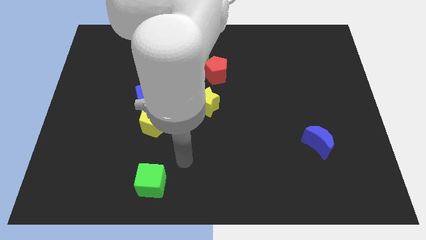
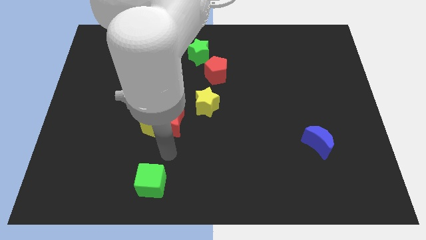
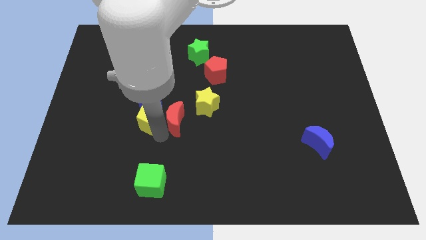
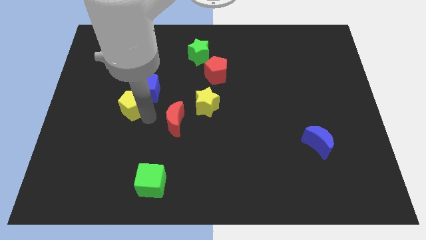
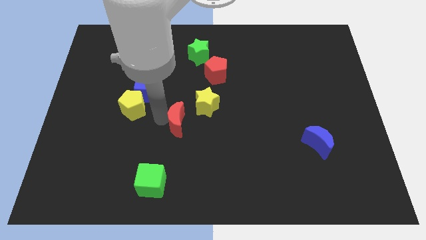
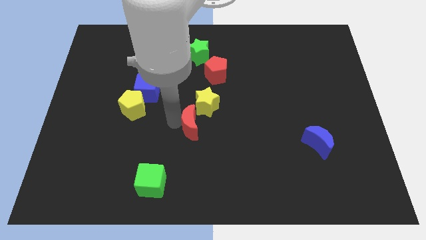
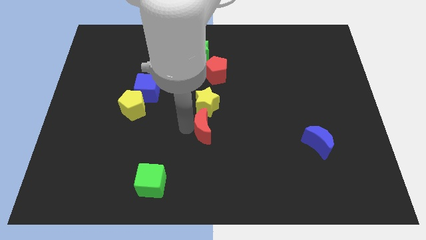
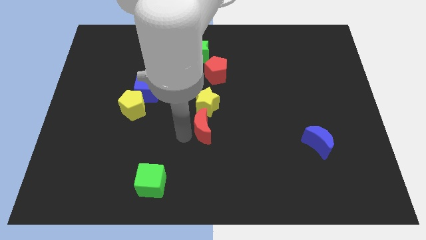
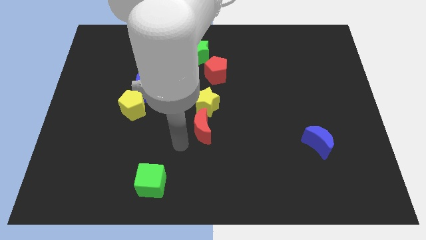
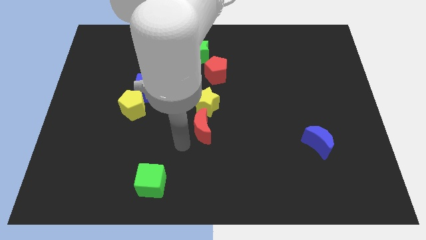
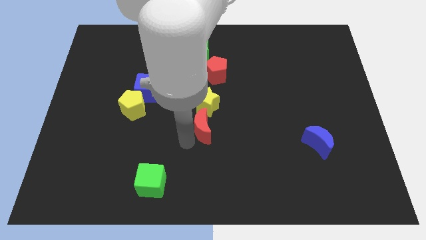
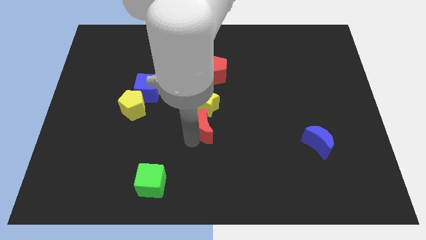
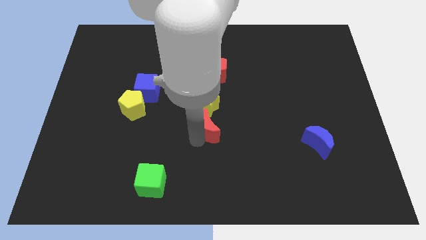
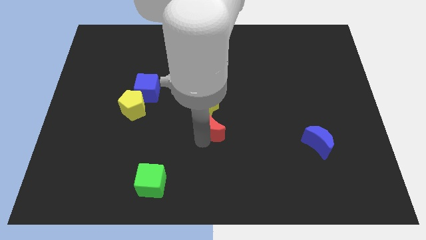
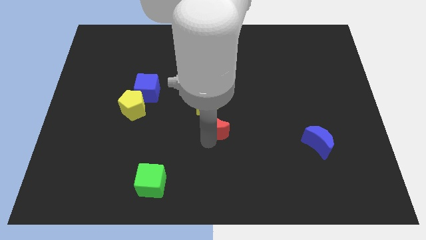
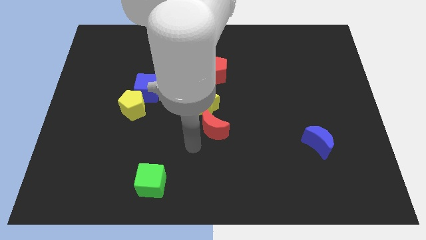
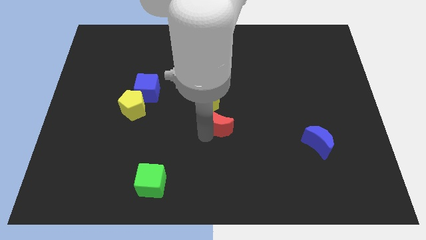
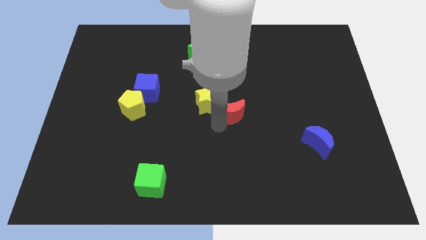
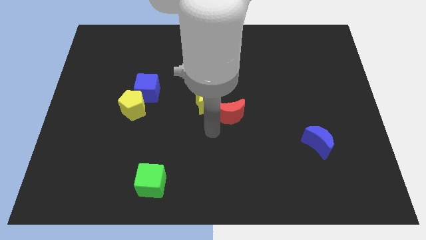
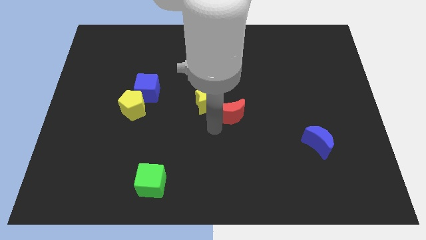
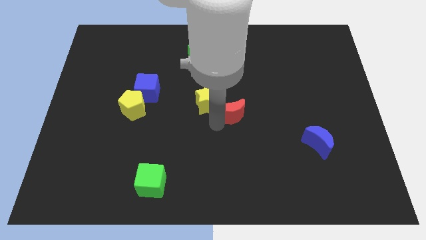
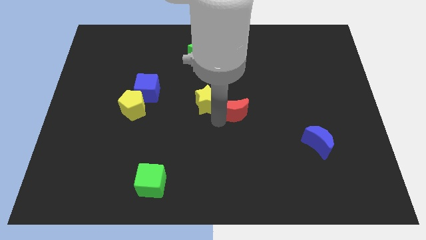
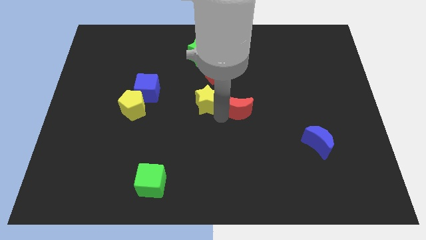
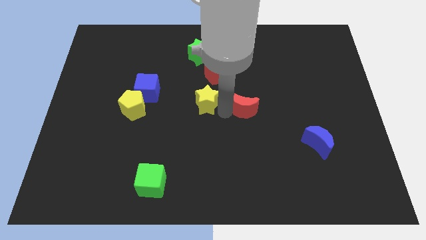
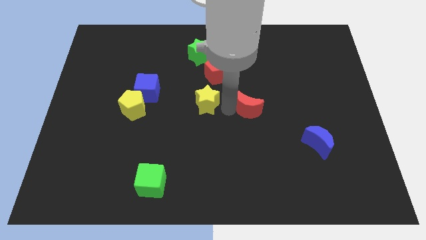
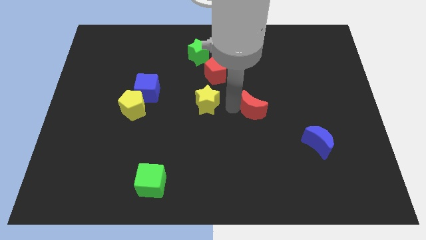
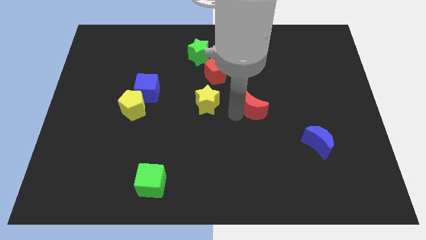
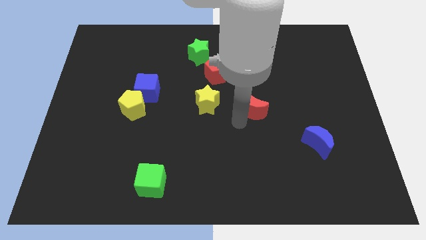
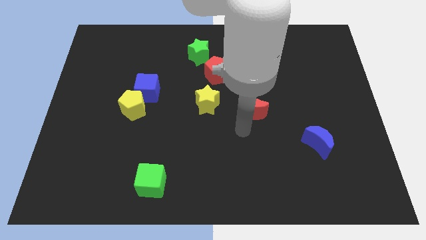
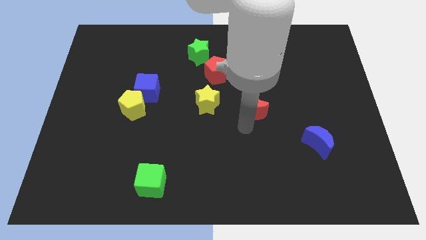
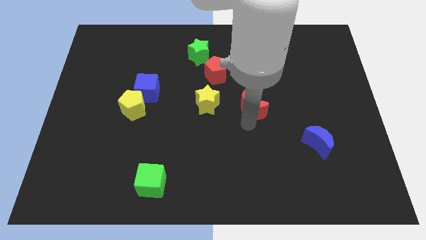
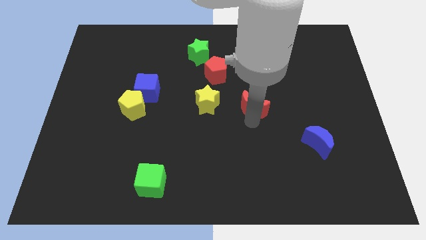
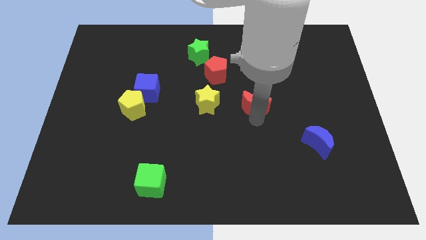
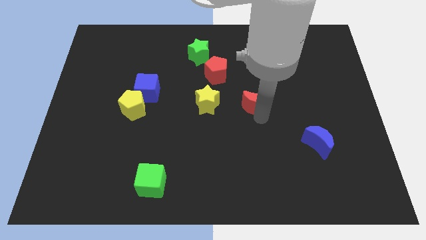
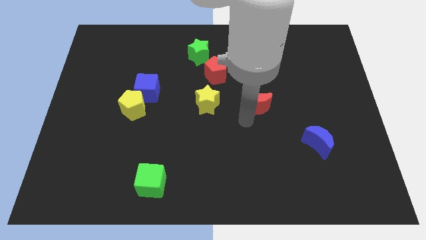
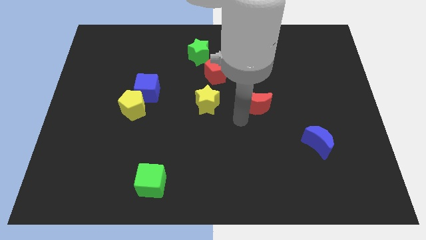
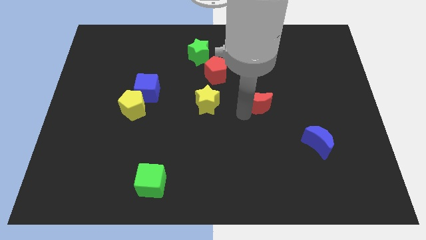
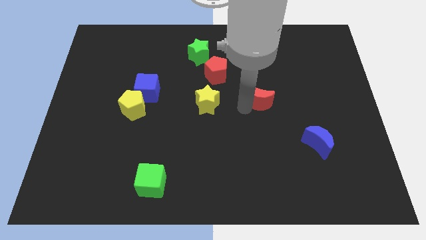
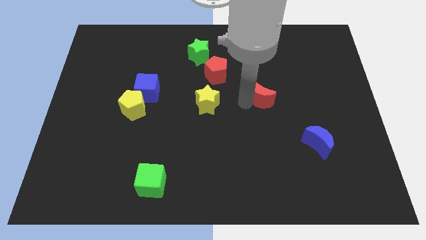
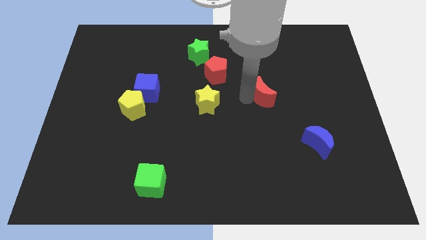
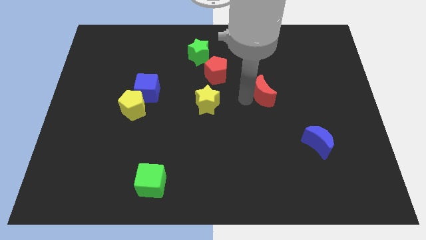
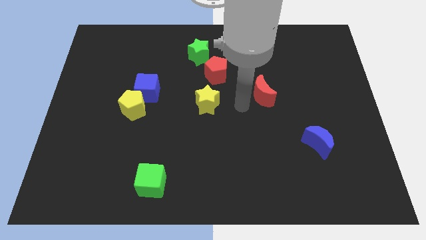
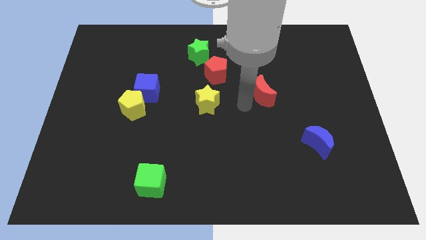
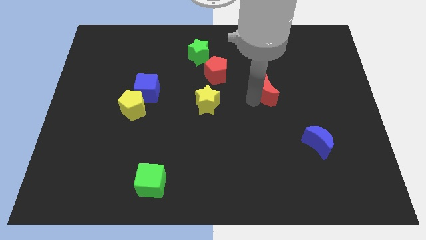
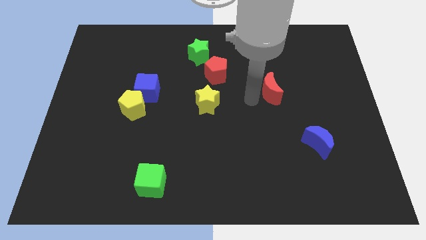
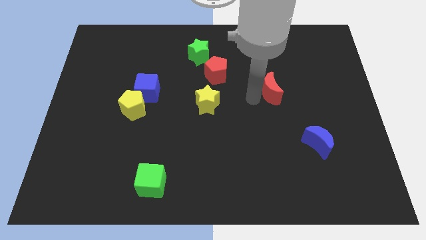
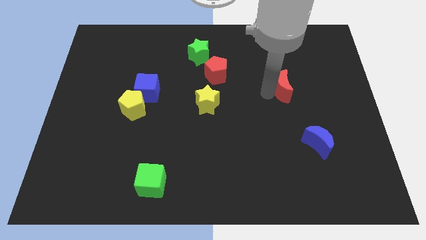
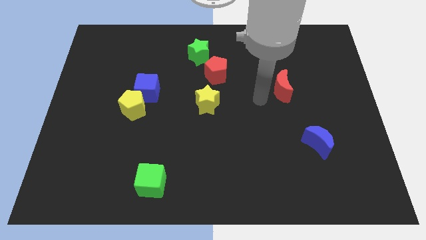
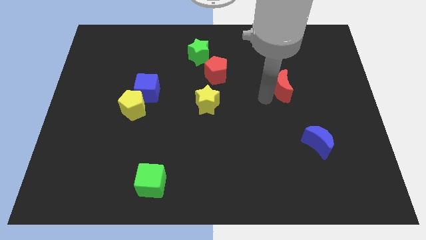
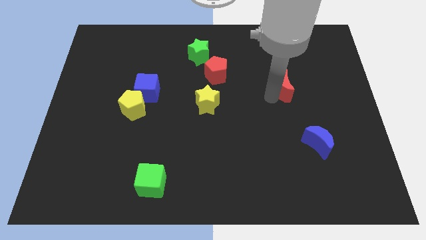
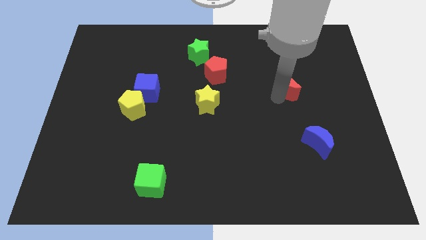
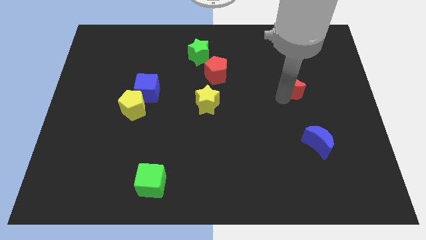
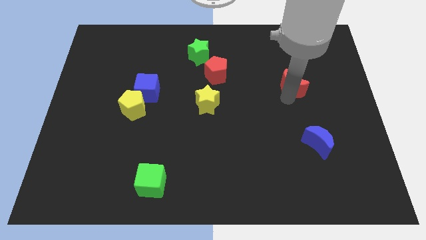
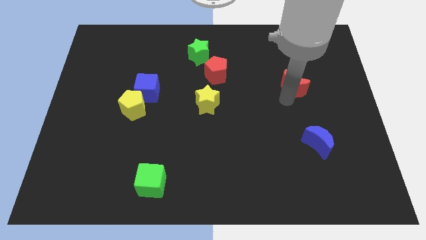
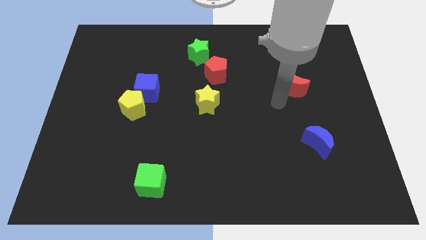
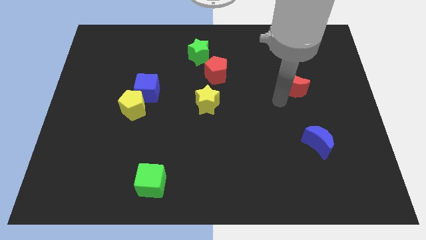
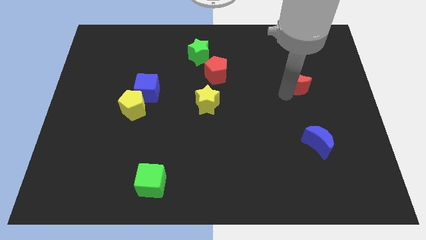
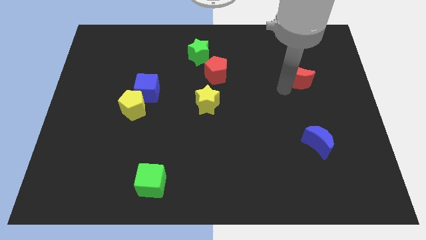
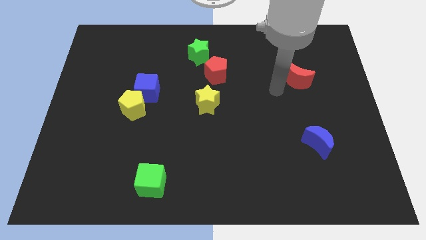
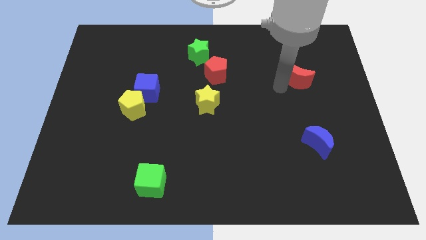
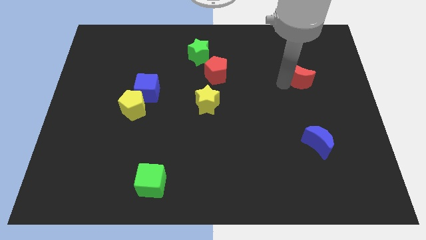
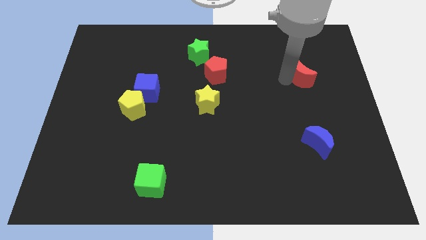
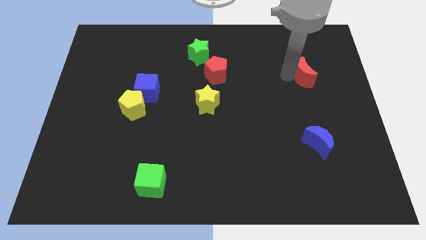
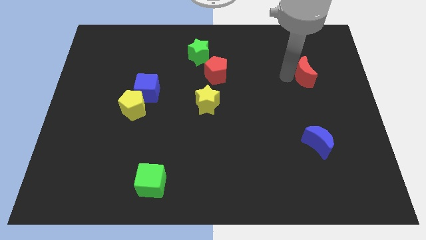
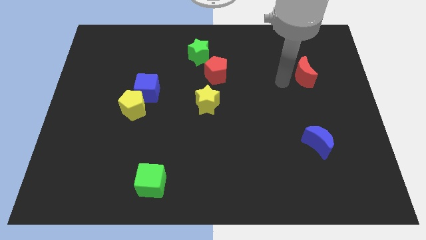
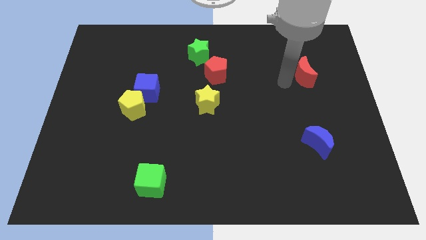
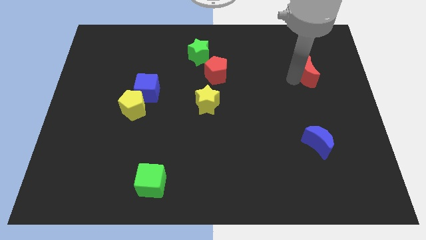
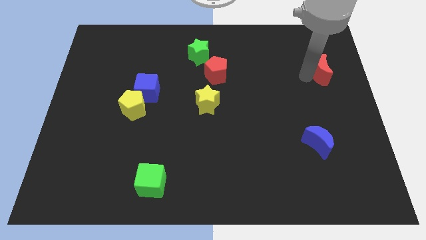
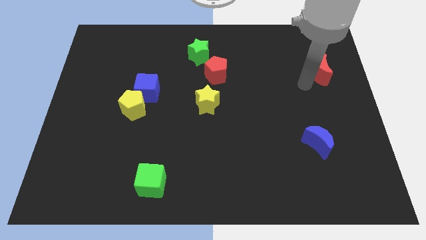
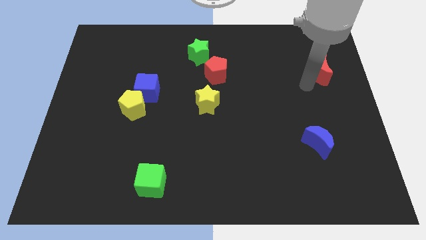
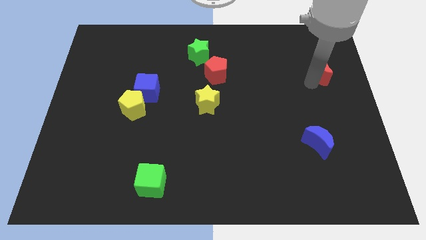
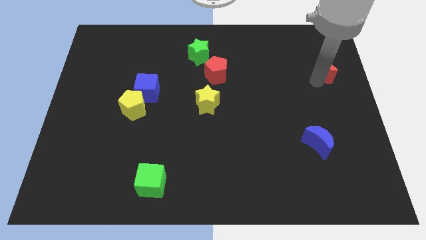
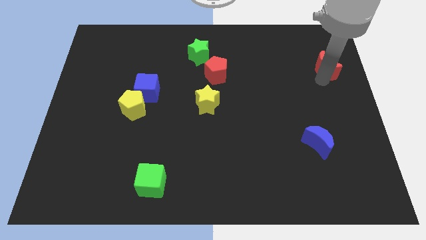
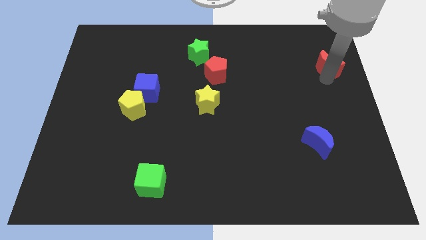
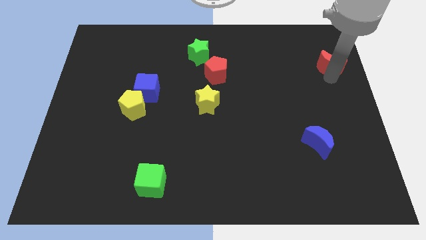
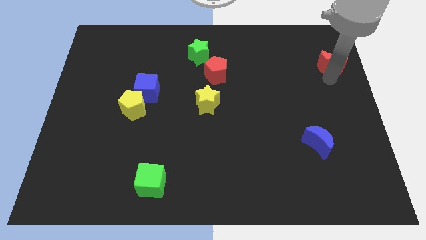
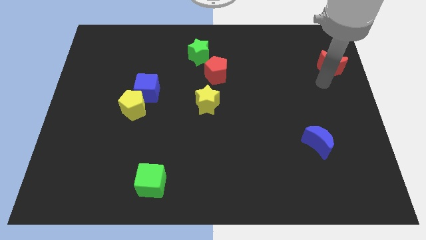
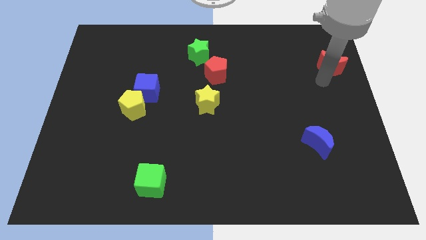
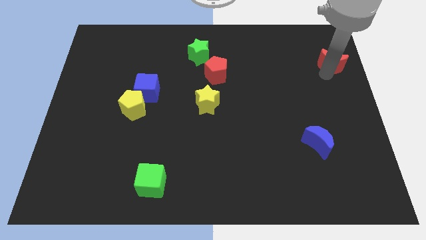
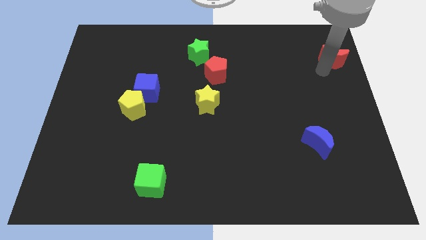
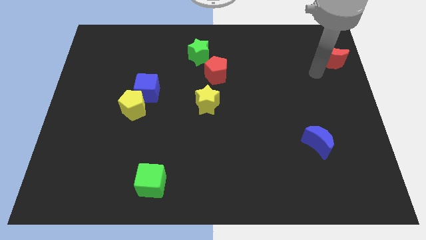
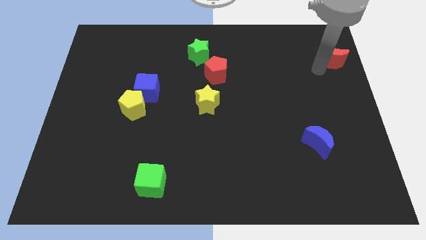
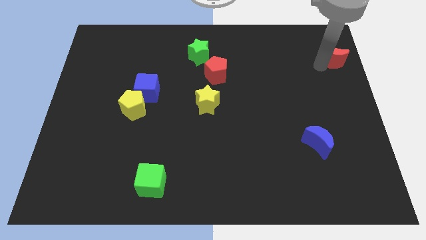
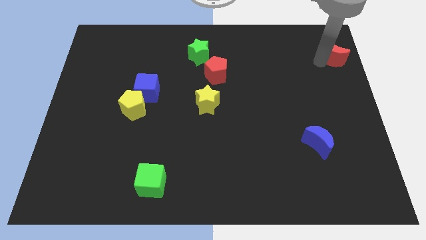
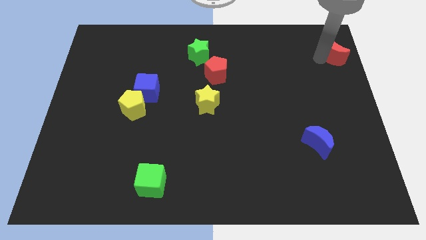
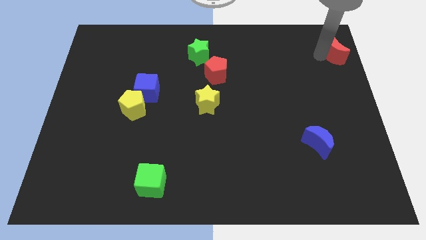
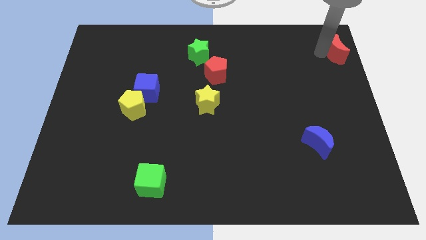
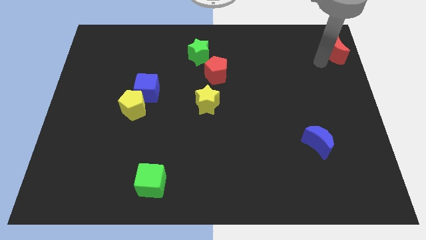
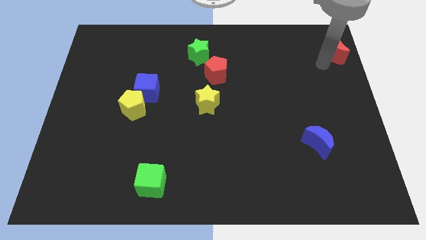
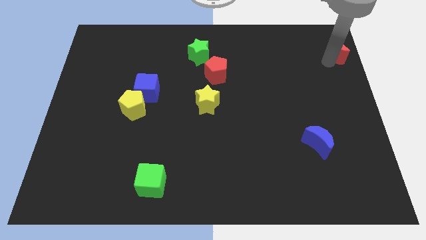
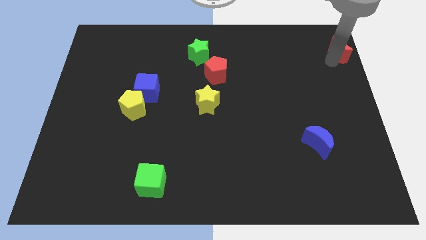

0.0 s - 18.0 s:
push the red moon to the upper right corner
